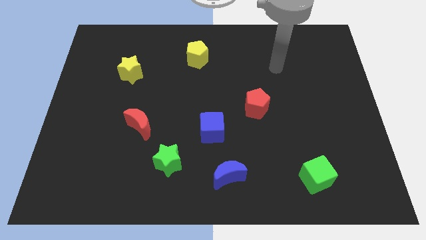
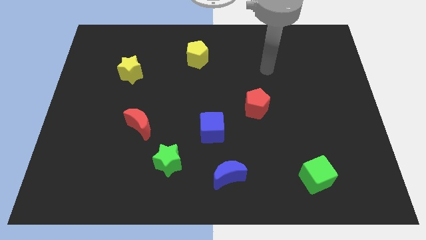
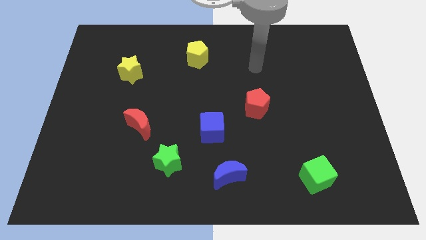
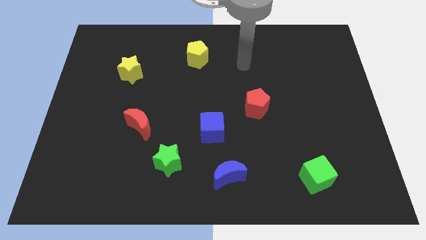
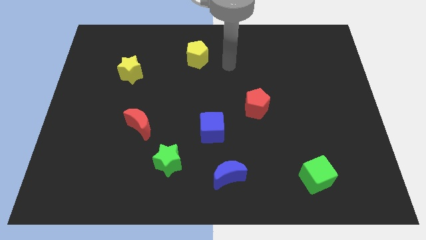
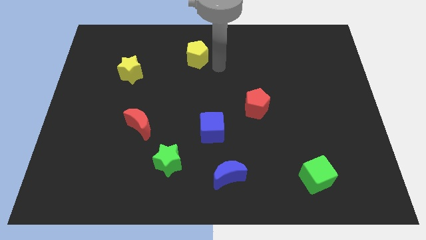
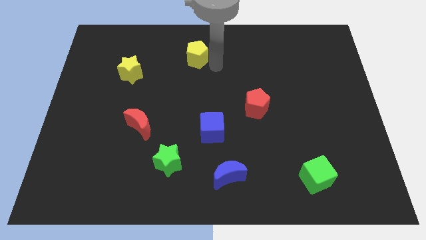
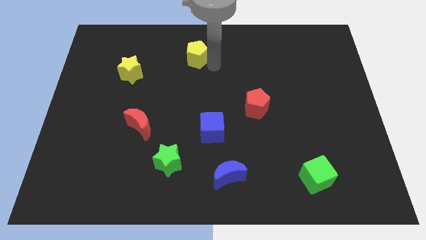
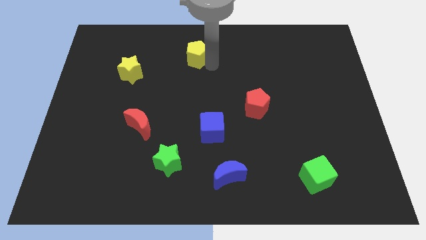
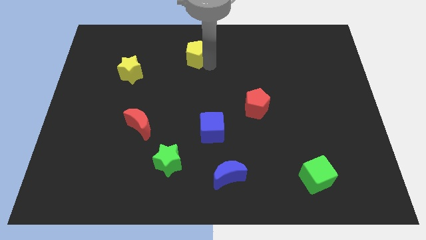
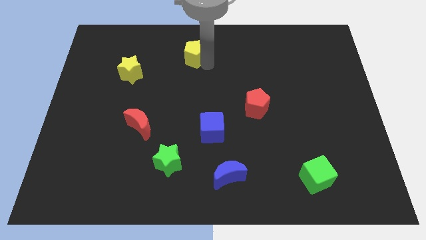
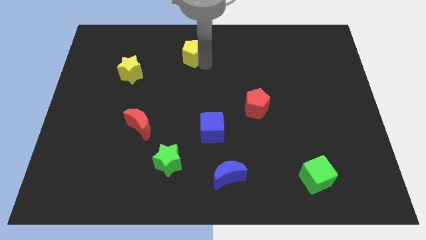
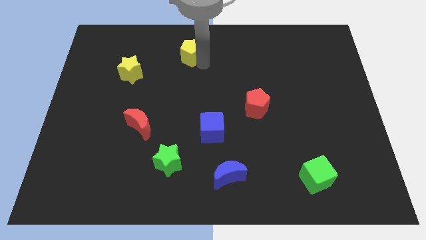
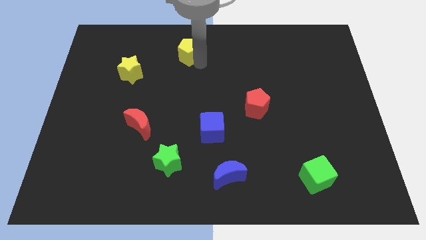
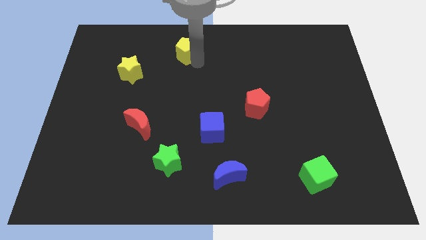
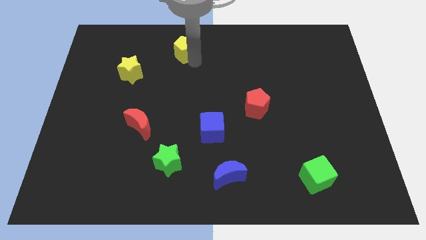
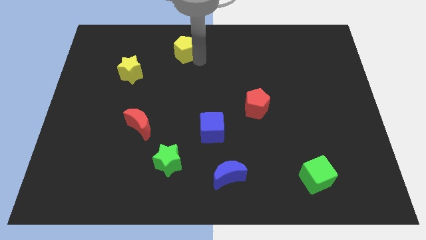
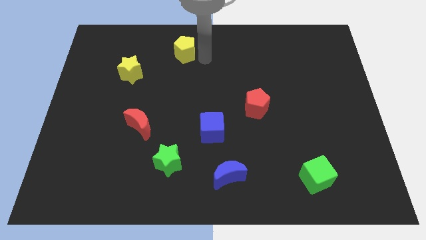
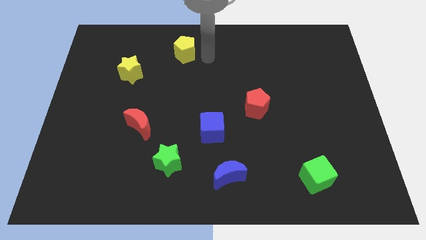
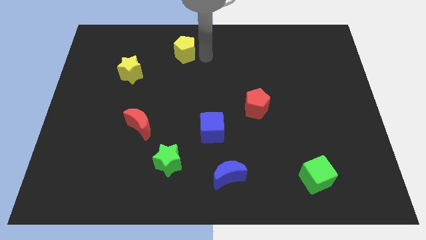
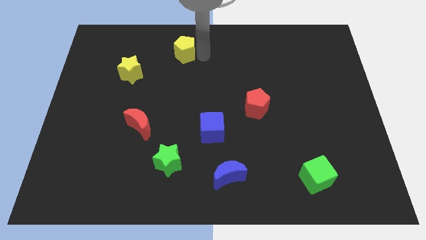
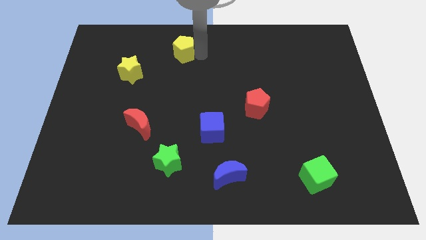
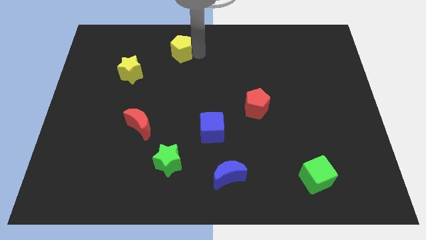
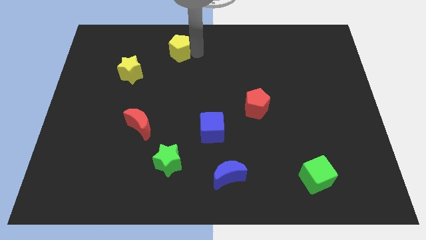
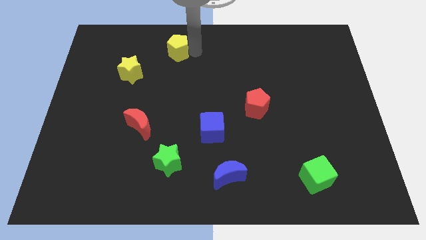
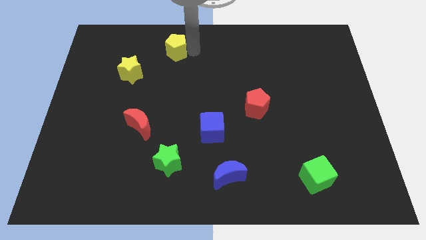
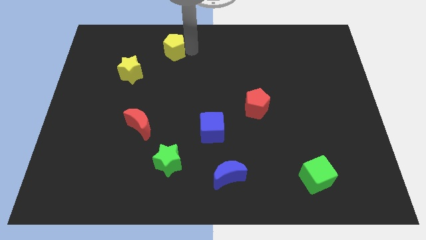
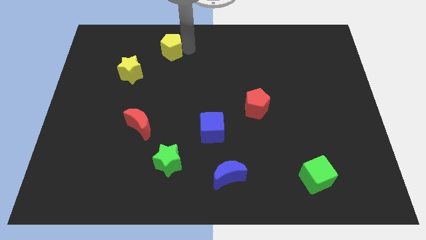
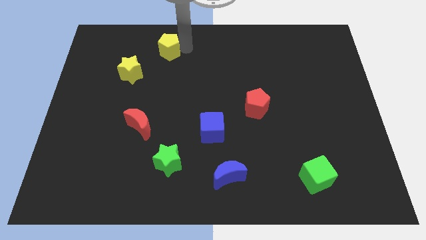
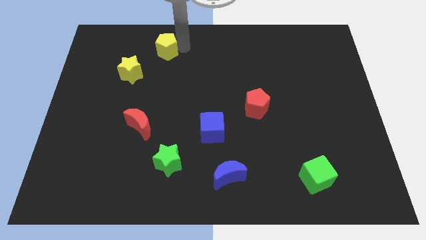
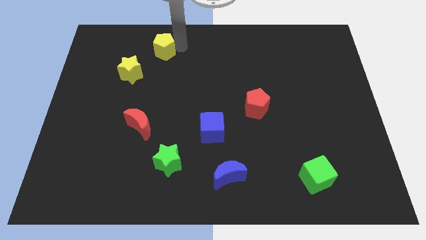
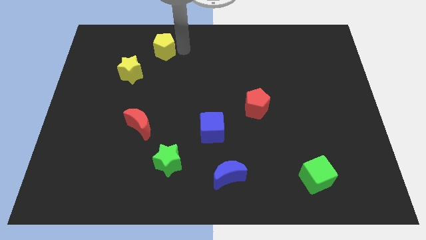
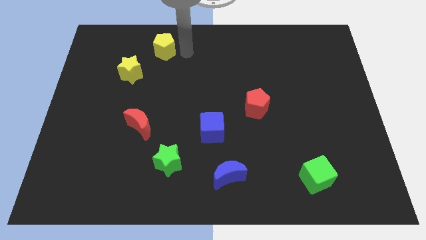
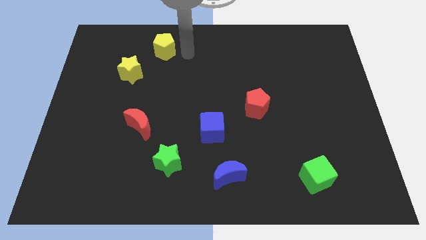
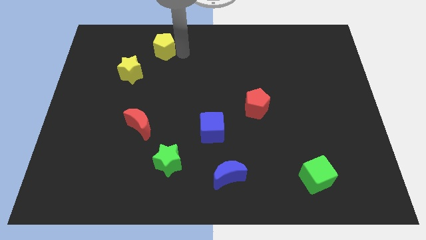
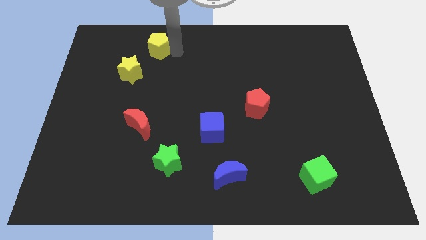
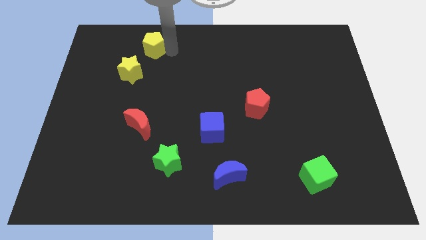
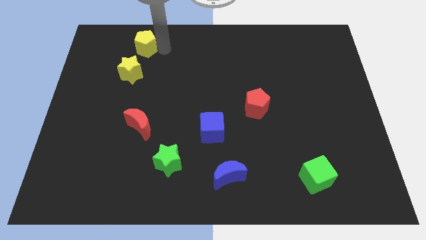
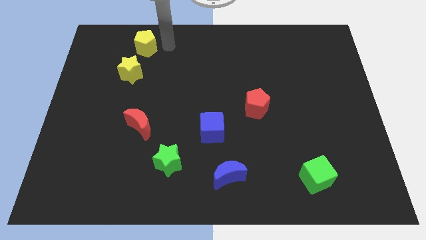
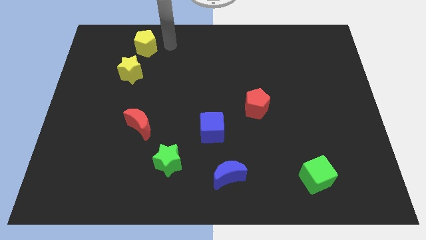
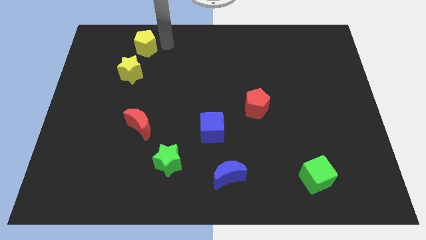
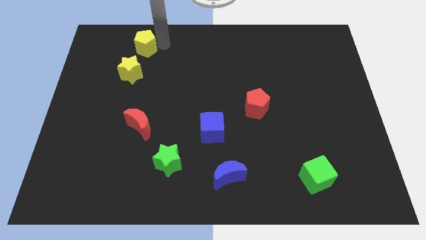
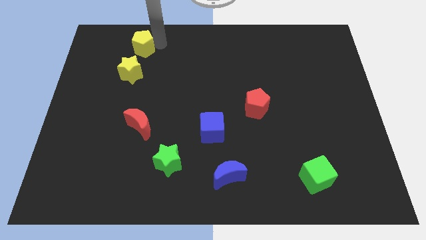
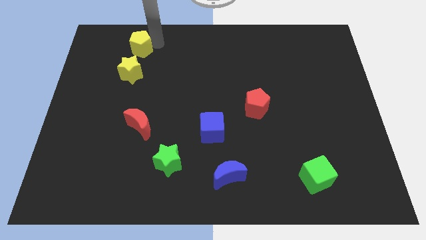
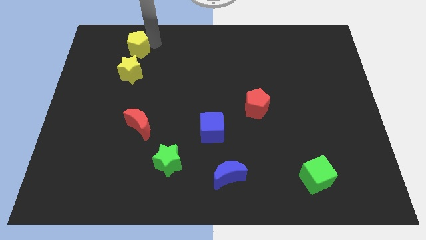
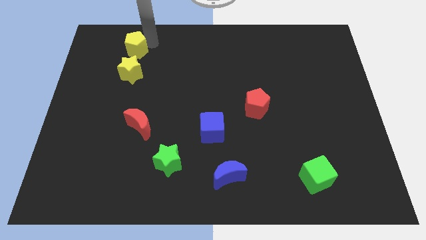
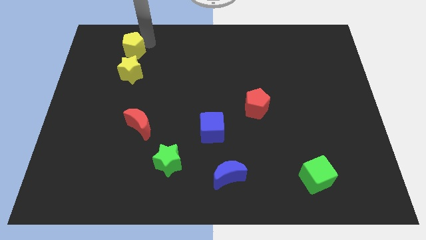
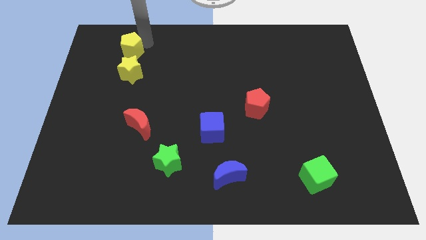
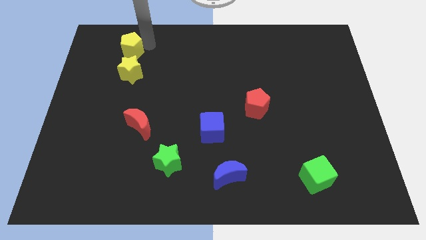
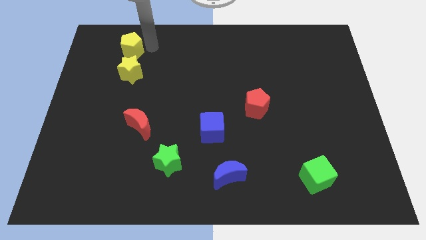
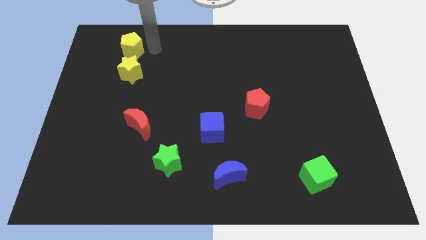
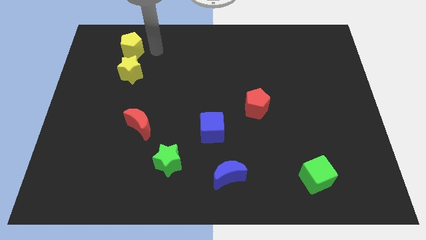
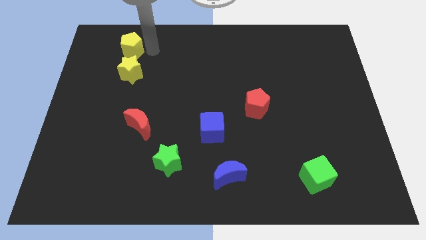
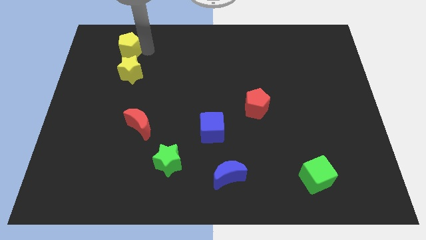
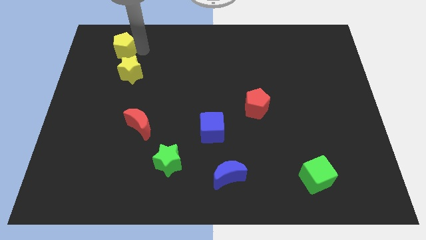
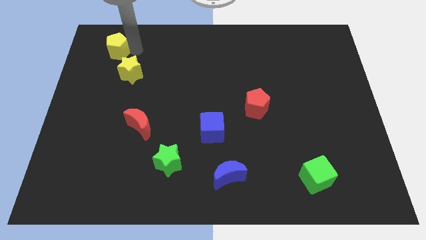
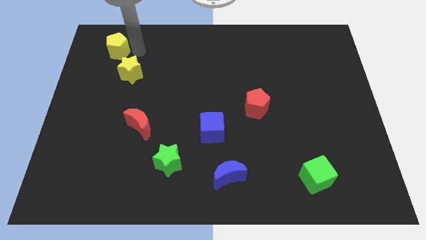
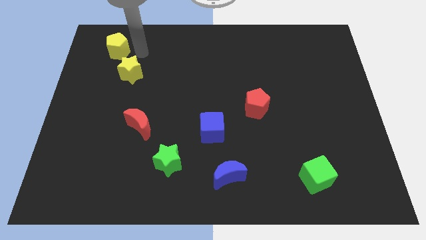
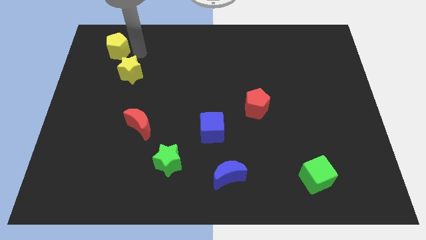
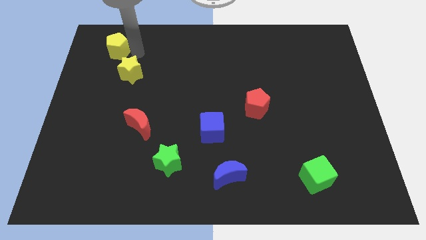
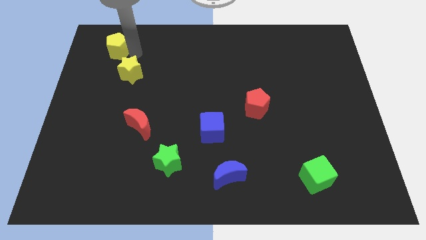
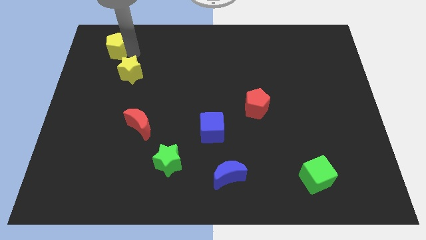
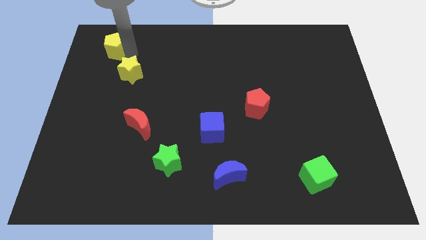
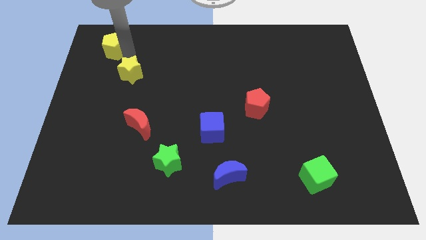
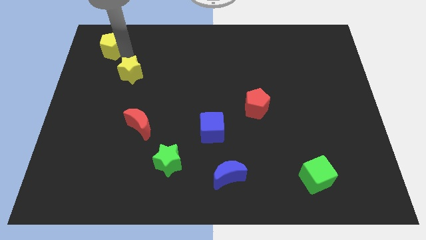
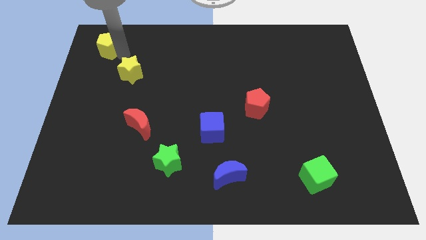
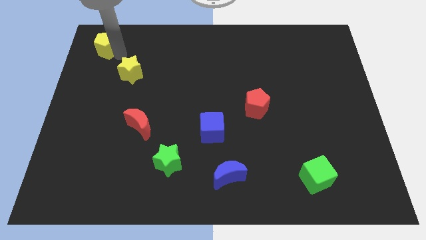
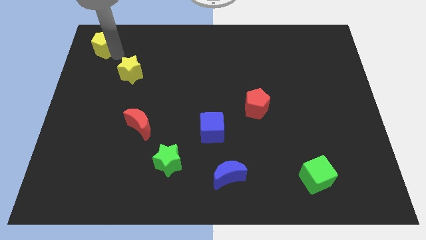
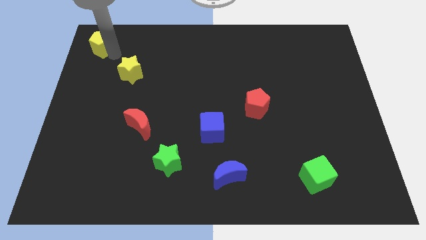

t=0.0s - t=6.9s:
slide the yellow pentagon to the upper left corner
